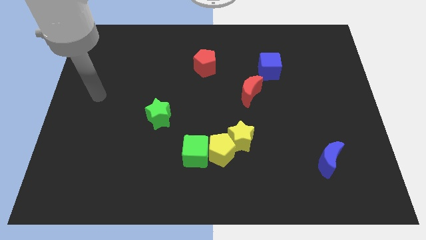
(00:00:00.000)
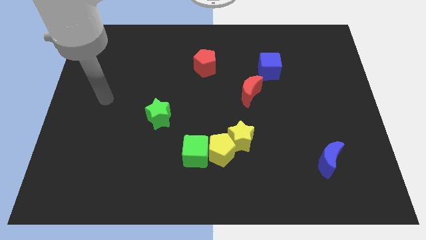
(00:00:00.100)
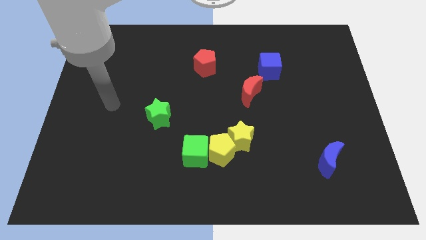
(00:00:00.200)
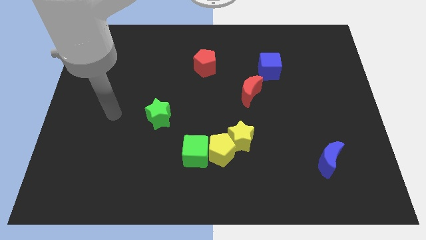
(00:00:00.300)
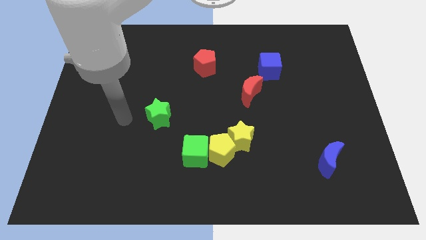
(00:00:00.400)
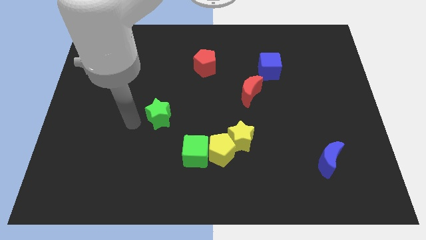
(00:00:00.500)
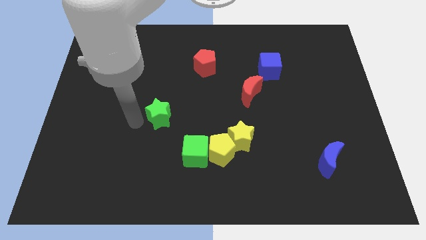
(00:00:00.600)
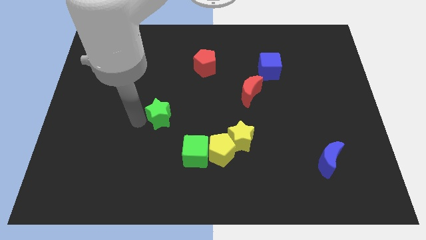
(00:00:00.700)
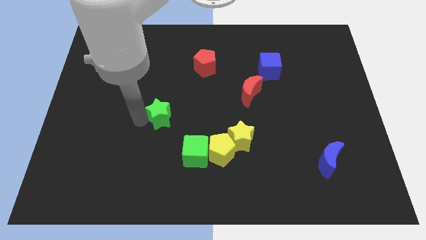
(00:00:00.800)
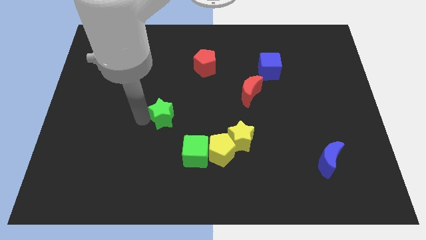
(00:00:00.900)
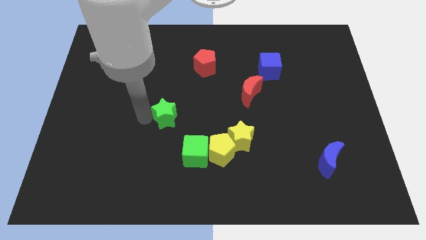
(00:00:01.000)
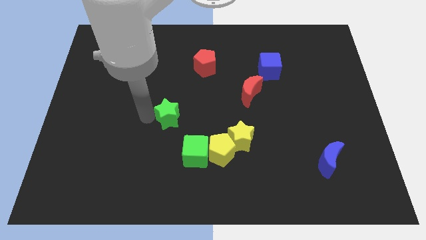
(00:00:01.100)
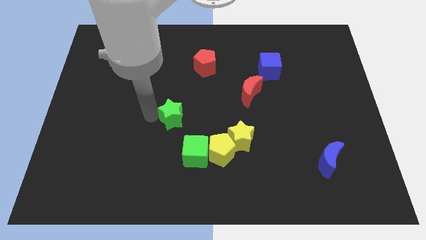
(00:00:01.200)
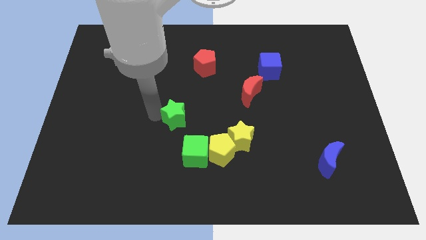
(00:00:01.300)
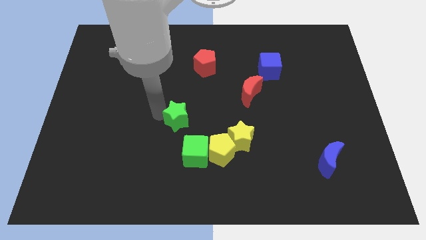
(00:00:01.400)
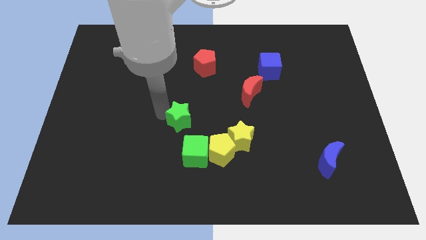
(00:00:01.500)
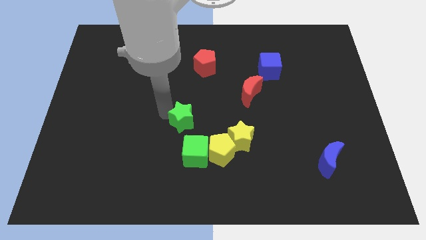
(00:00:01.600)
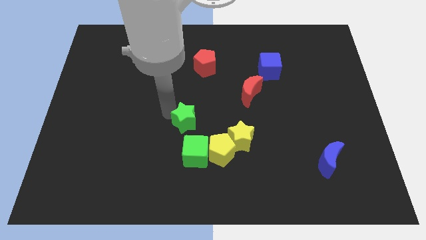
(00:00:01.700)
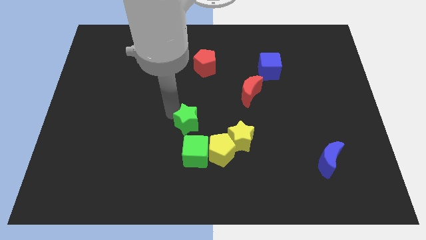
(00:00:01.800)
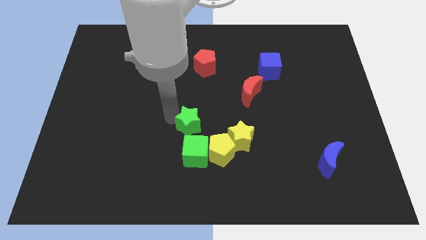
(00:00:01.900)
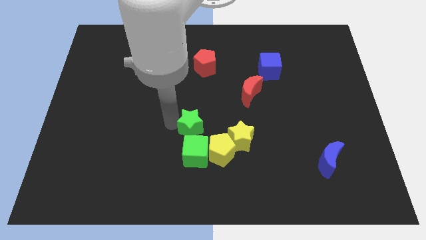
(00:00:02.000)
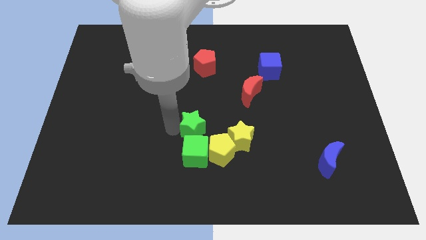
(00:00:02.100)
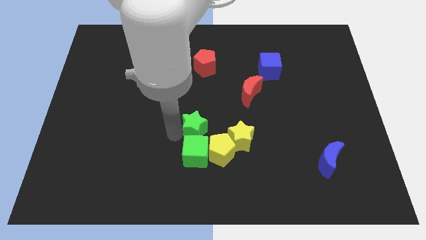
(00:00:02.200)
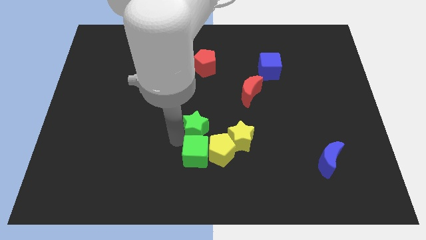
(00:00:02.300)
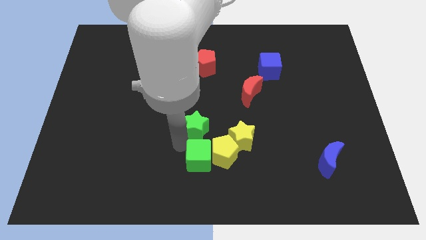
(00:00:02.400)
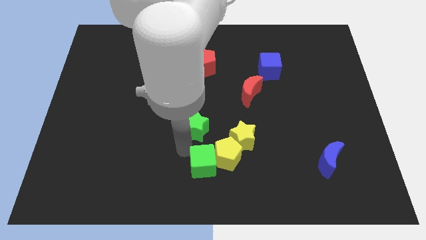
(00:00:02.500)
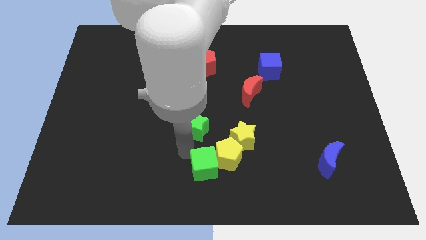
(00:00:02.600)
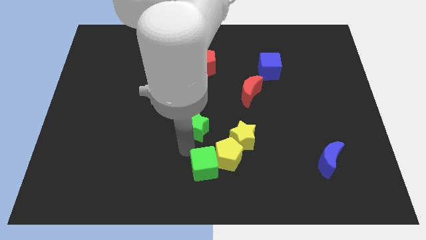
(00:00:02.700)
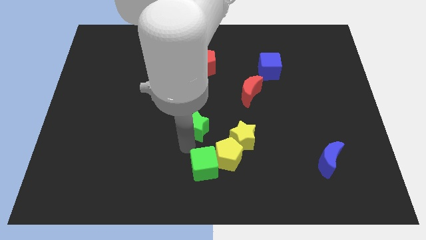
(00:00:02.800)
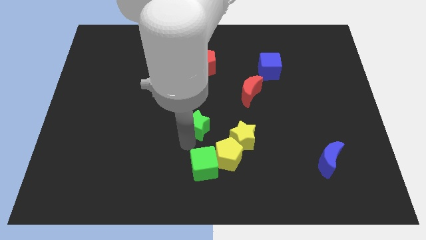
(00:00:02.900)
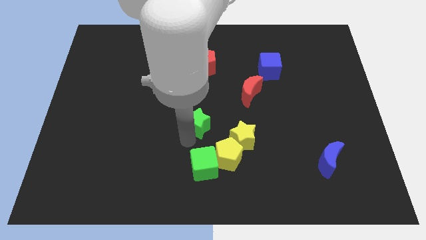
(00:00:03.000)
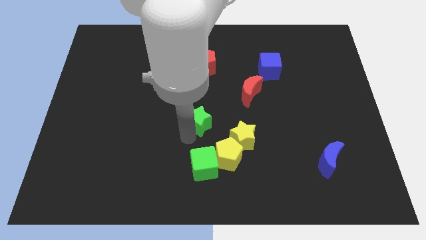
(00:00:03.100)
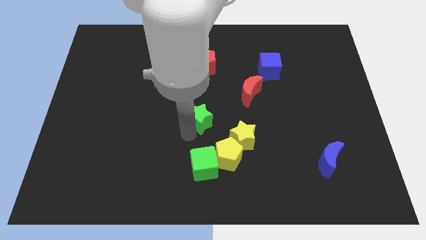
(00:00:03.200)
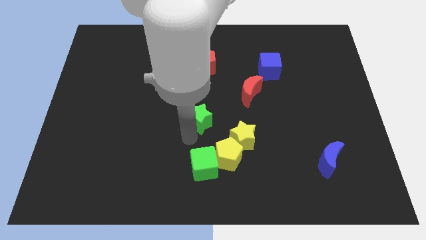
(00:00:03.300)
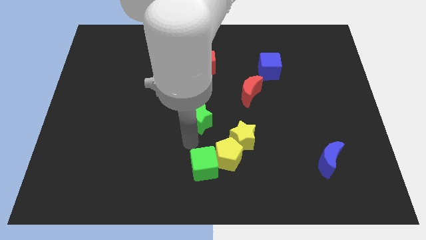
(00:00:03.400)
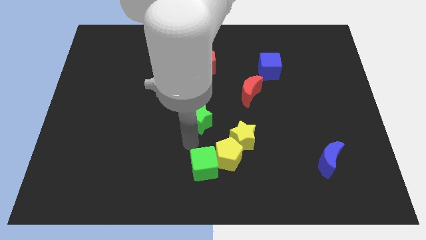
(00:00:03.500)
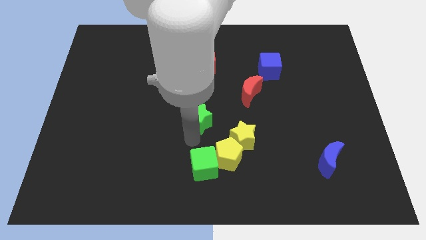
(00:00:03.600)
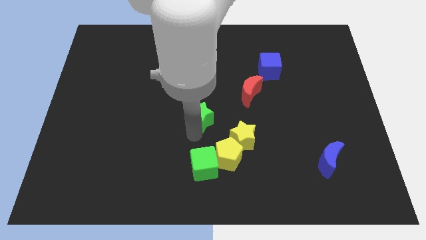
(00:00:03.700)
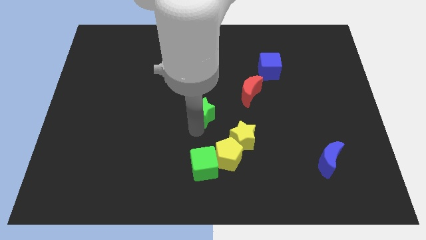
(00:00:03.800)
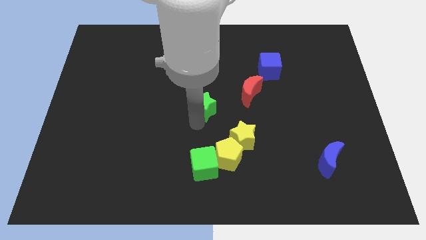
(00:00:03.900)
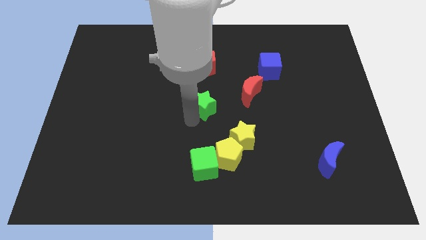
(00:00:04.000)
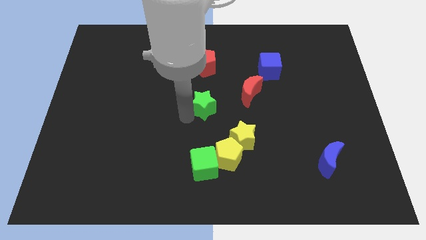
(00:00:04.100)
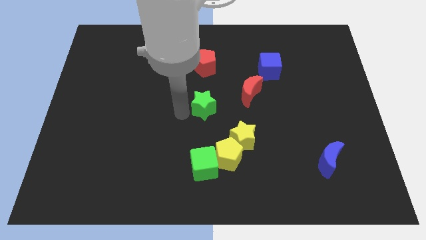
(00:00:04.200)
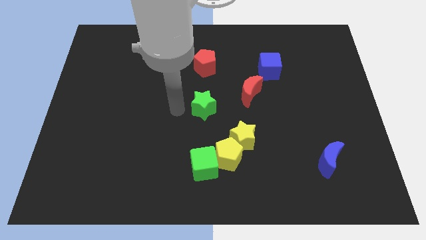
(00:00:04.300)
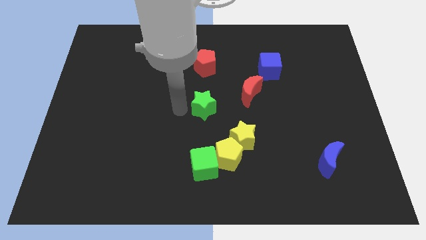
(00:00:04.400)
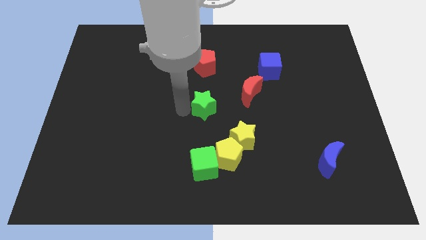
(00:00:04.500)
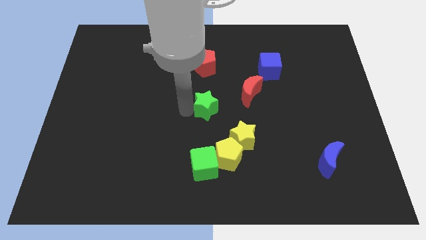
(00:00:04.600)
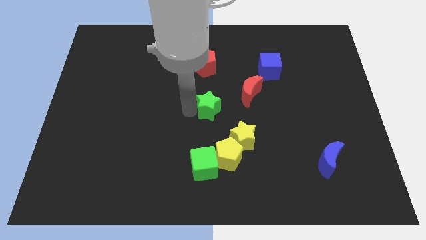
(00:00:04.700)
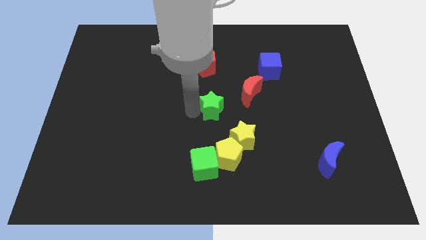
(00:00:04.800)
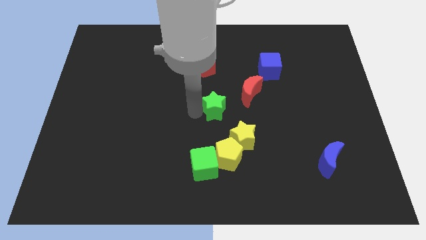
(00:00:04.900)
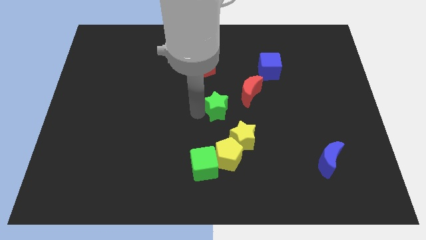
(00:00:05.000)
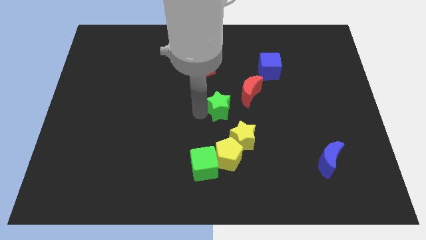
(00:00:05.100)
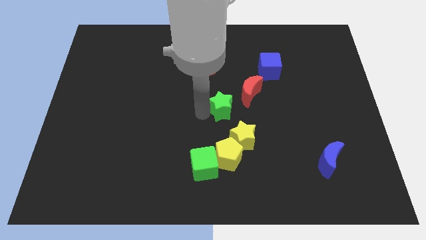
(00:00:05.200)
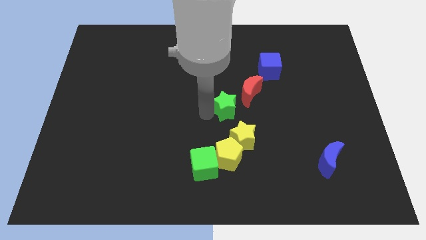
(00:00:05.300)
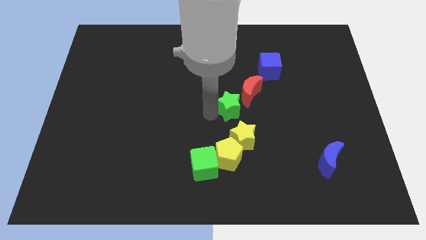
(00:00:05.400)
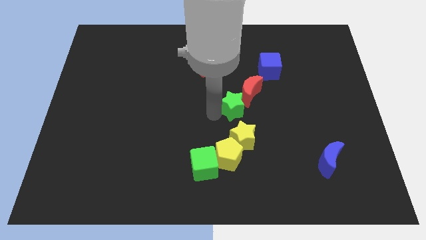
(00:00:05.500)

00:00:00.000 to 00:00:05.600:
move the green star next to the red moon

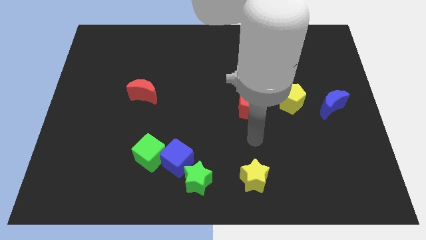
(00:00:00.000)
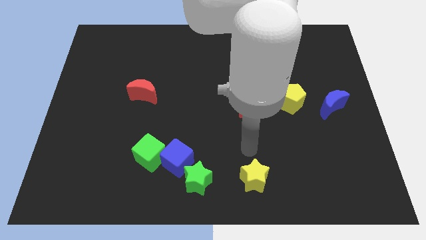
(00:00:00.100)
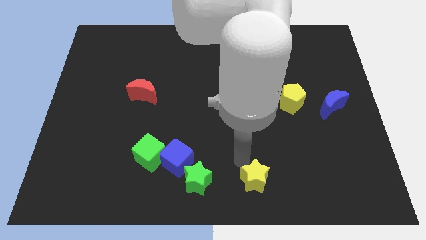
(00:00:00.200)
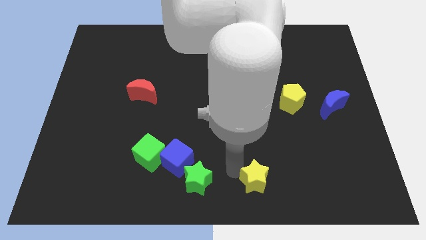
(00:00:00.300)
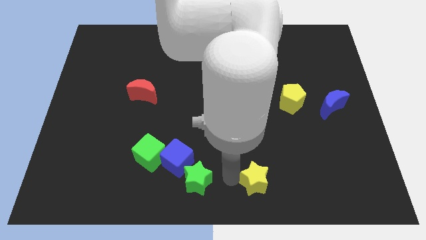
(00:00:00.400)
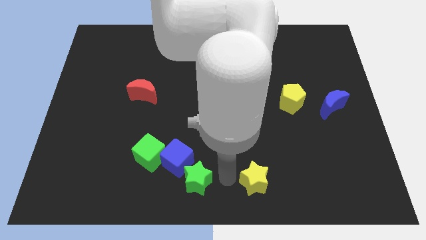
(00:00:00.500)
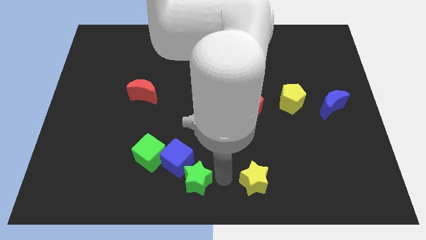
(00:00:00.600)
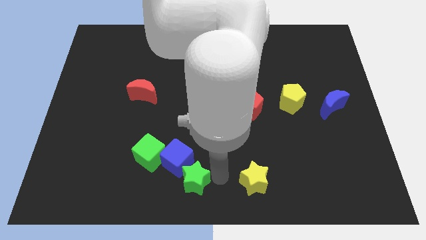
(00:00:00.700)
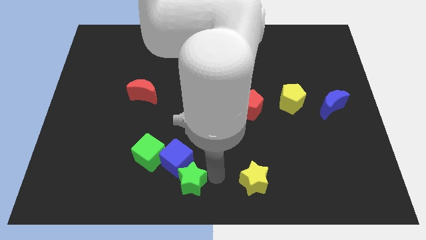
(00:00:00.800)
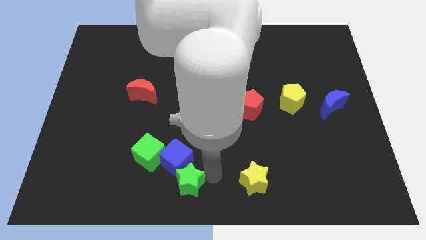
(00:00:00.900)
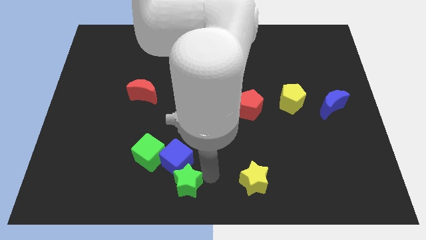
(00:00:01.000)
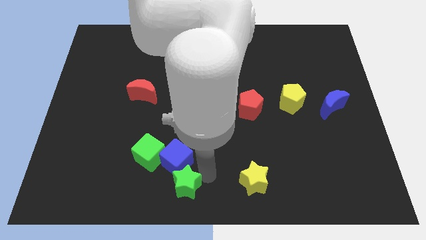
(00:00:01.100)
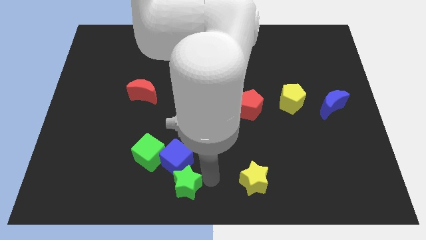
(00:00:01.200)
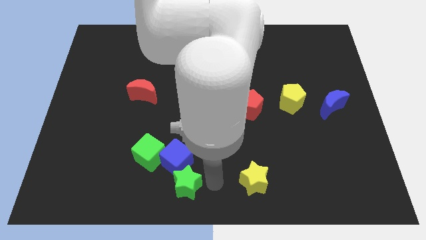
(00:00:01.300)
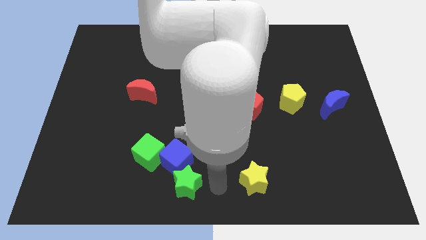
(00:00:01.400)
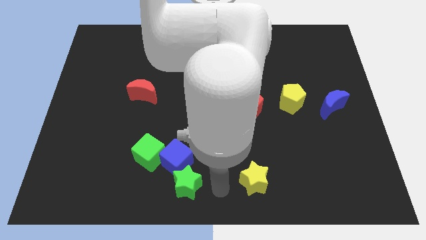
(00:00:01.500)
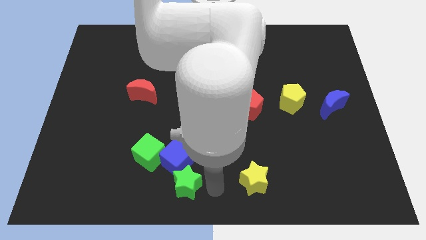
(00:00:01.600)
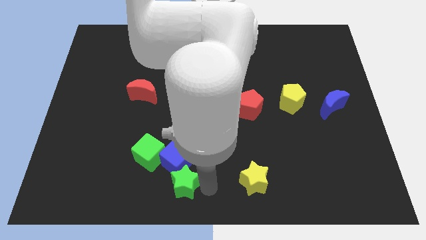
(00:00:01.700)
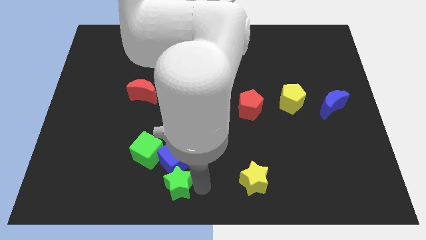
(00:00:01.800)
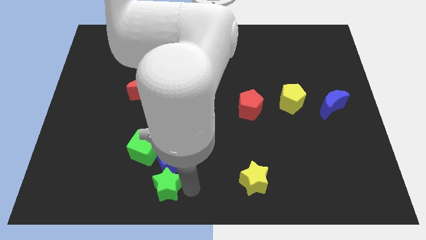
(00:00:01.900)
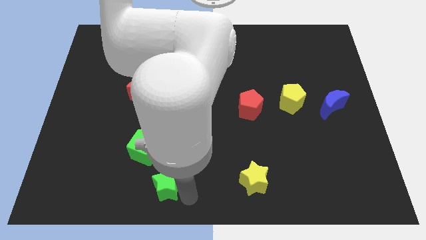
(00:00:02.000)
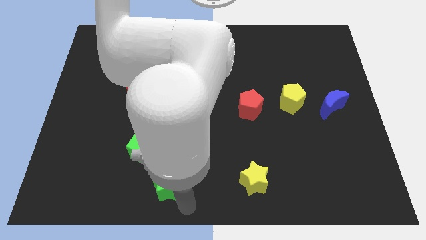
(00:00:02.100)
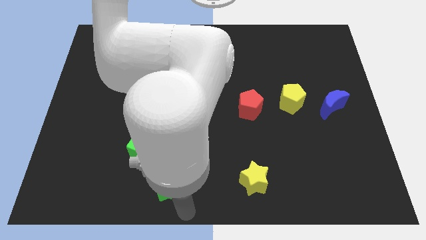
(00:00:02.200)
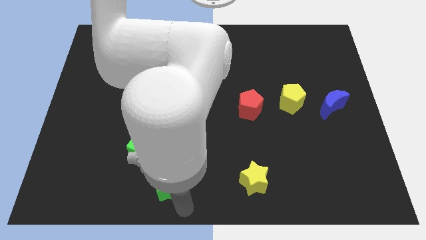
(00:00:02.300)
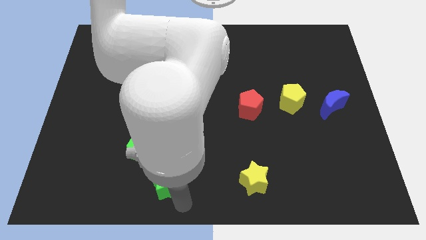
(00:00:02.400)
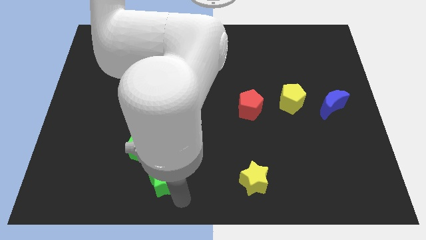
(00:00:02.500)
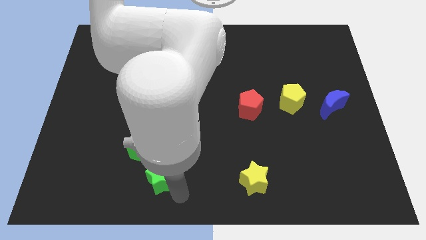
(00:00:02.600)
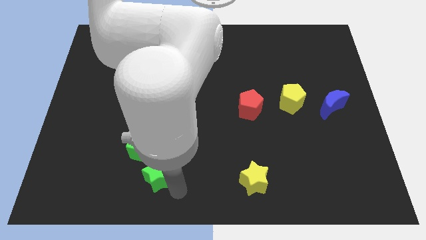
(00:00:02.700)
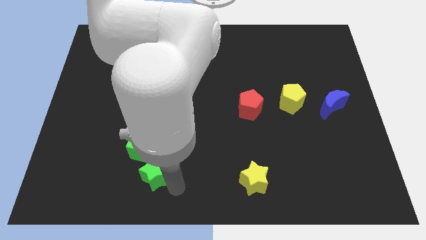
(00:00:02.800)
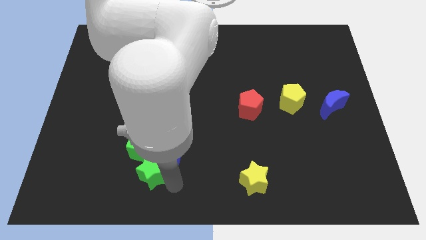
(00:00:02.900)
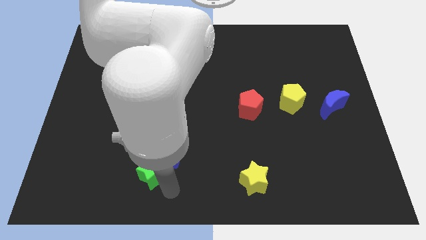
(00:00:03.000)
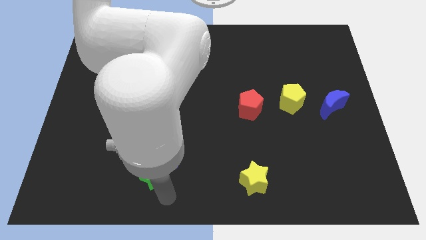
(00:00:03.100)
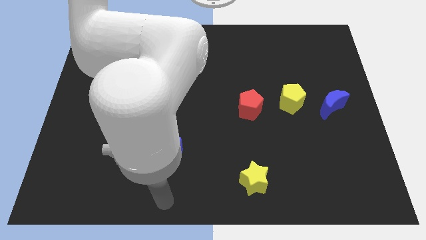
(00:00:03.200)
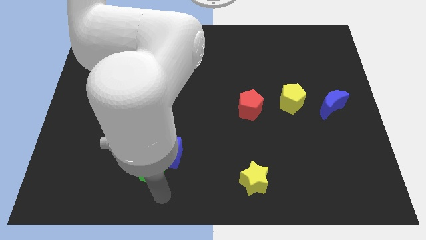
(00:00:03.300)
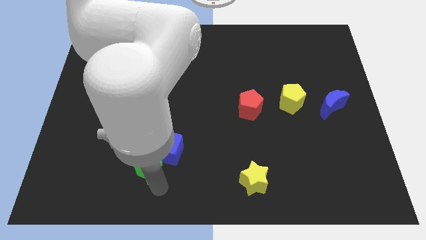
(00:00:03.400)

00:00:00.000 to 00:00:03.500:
move the green star close to the green cube
